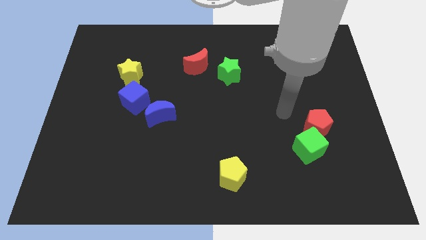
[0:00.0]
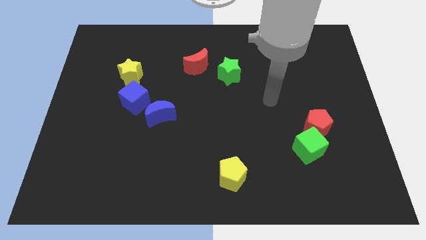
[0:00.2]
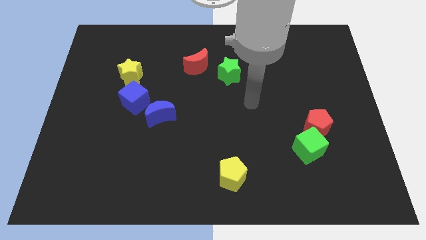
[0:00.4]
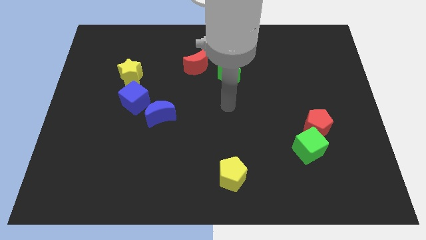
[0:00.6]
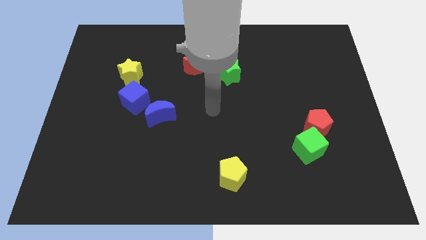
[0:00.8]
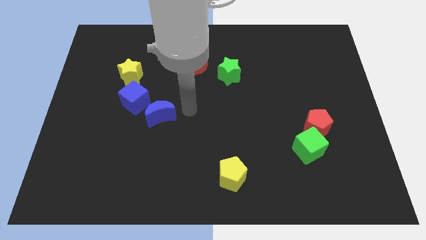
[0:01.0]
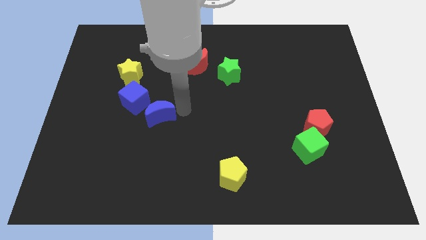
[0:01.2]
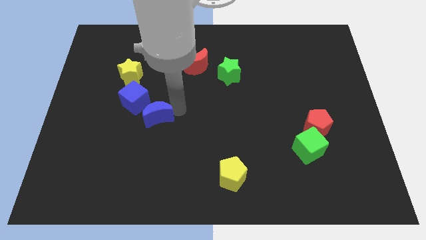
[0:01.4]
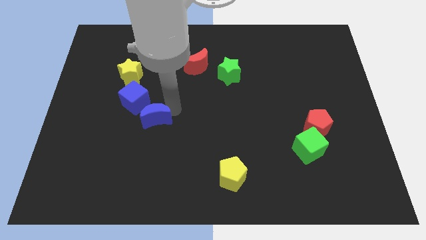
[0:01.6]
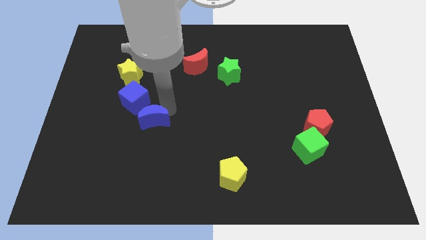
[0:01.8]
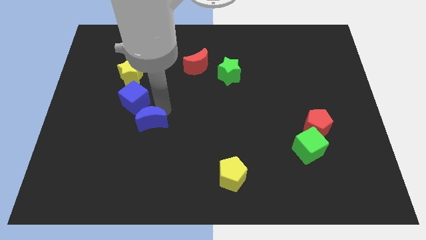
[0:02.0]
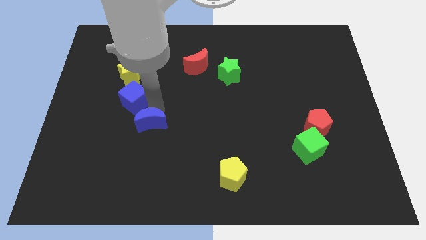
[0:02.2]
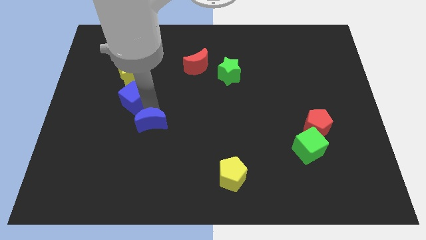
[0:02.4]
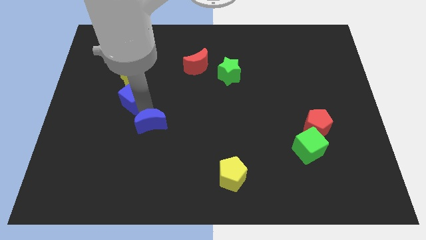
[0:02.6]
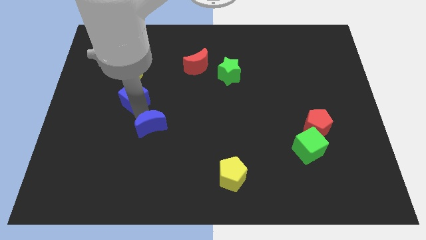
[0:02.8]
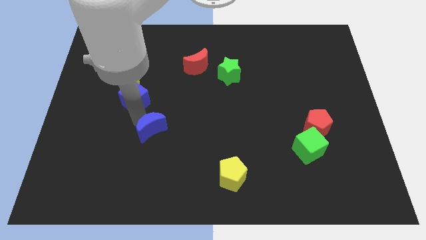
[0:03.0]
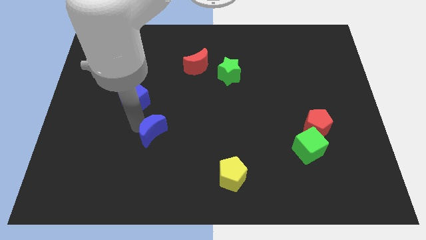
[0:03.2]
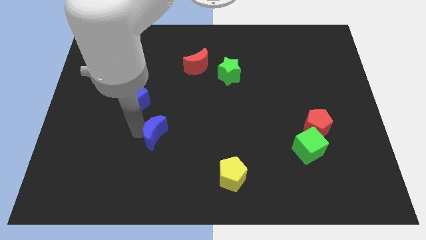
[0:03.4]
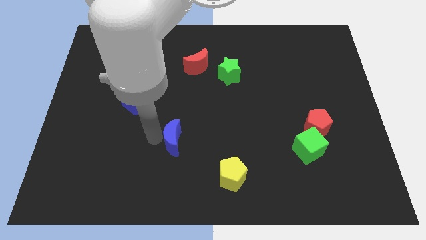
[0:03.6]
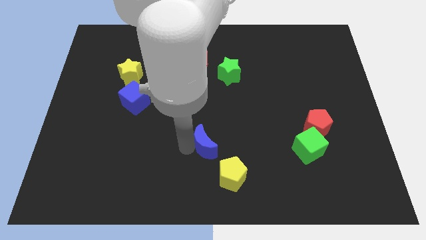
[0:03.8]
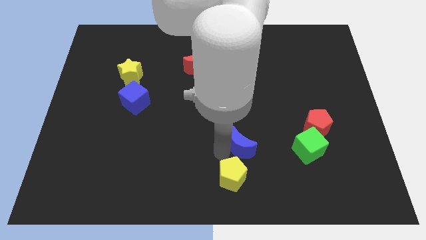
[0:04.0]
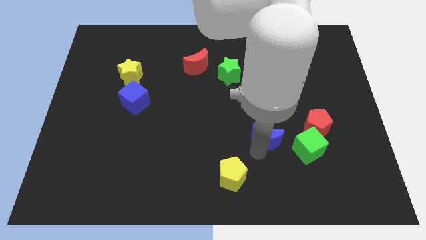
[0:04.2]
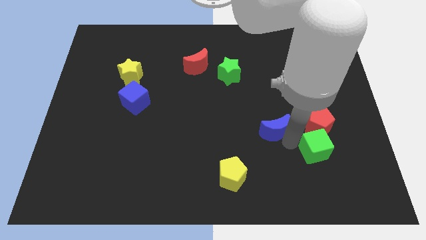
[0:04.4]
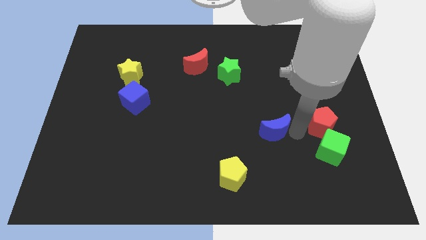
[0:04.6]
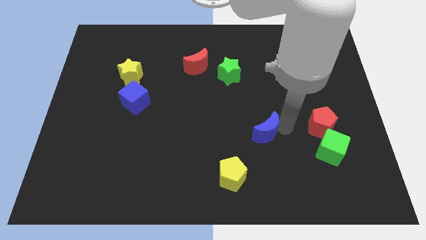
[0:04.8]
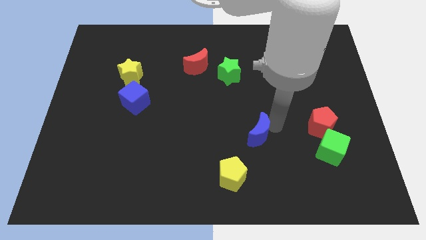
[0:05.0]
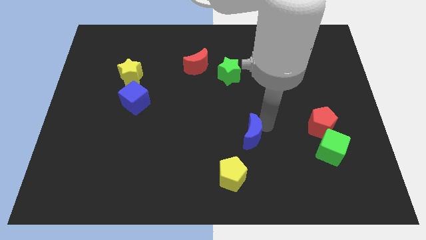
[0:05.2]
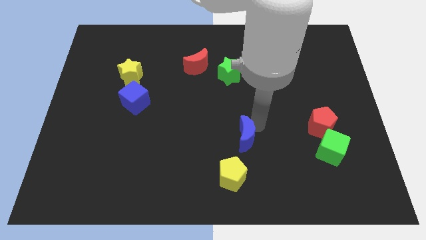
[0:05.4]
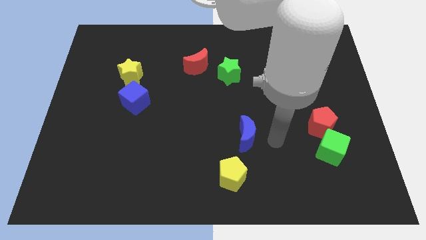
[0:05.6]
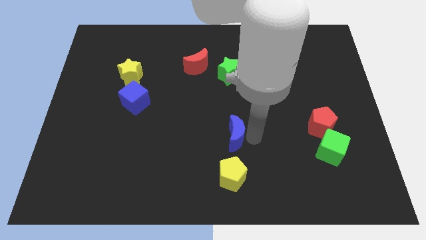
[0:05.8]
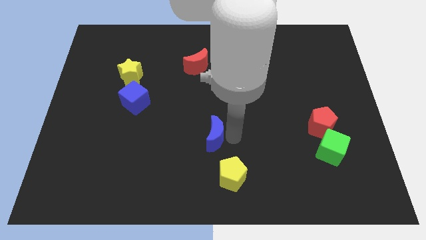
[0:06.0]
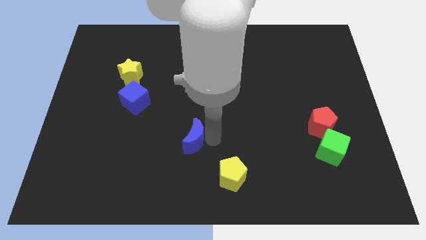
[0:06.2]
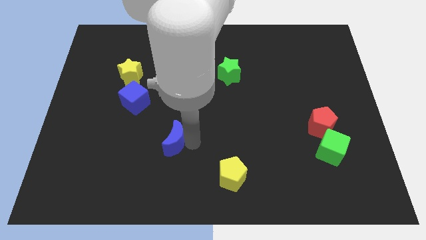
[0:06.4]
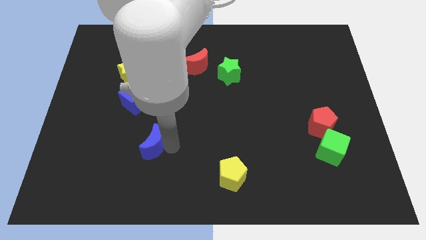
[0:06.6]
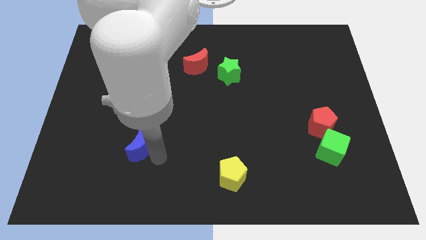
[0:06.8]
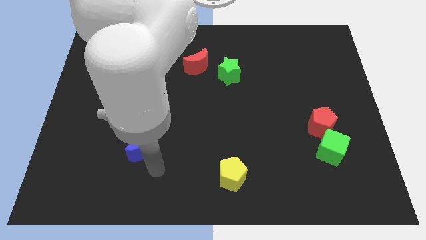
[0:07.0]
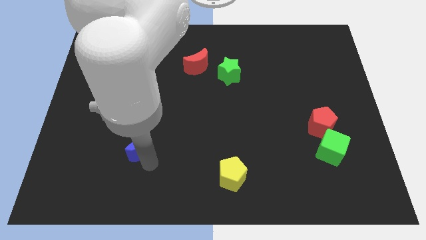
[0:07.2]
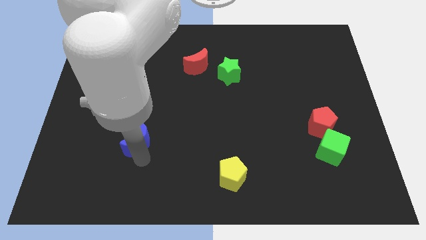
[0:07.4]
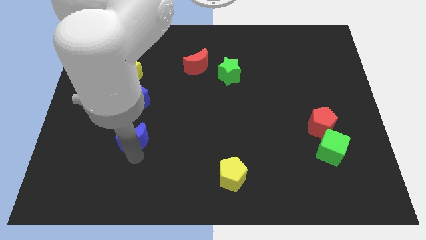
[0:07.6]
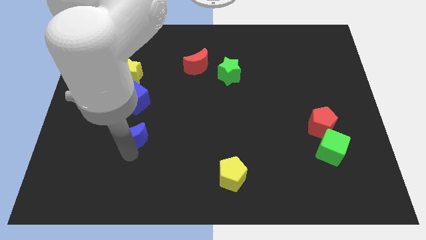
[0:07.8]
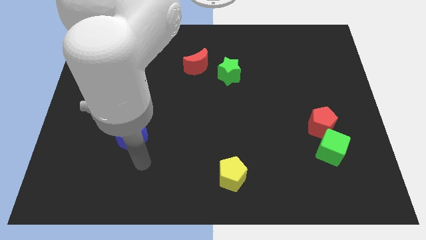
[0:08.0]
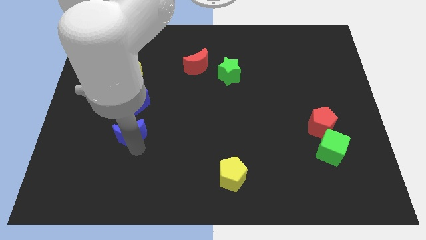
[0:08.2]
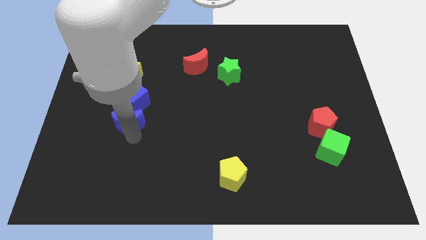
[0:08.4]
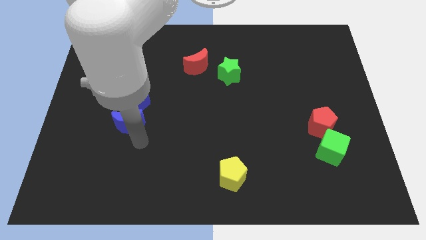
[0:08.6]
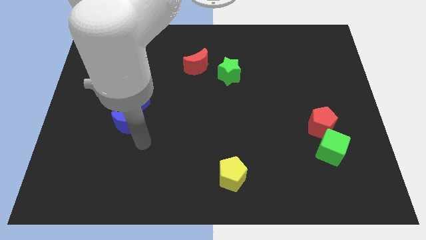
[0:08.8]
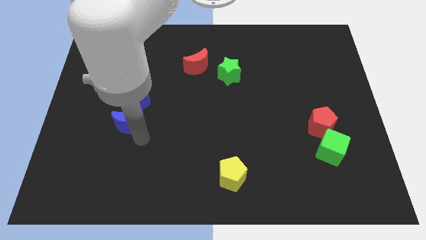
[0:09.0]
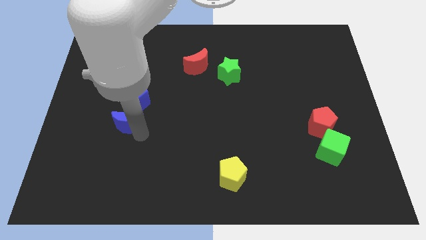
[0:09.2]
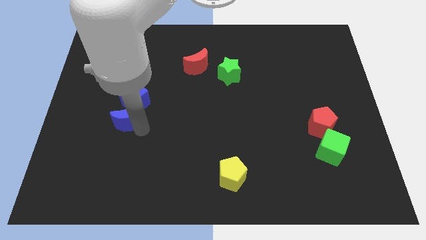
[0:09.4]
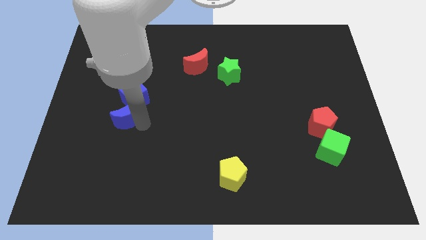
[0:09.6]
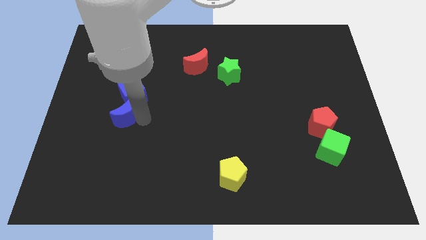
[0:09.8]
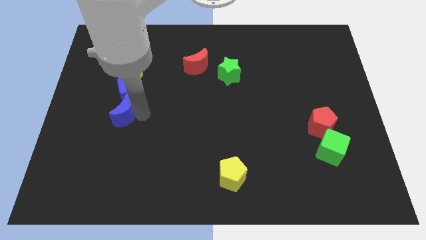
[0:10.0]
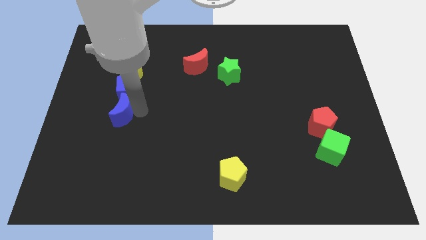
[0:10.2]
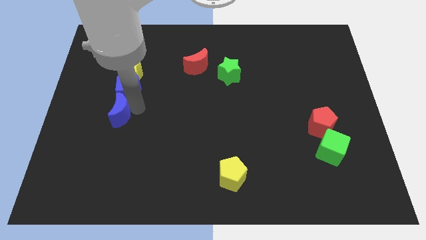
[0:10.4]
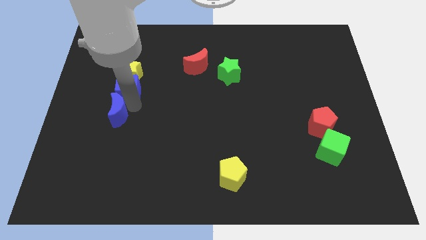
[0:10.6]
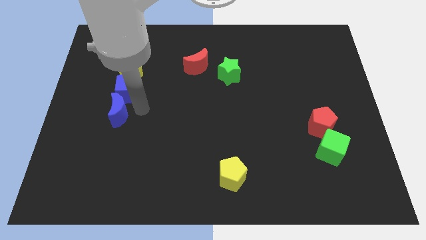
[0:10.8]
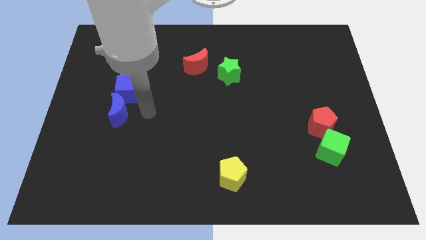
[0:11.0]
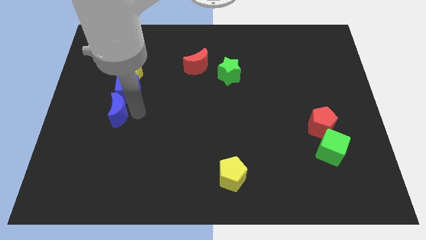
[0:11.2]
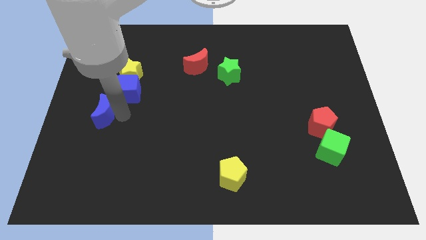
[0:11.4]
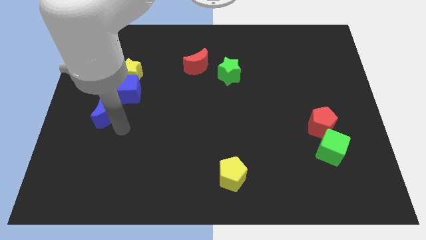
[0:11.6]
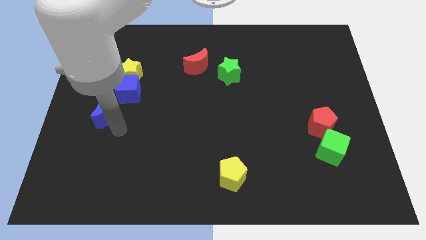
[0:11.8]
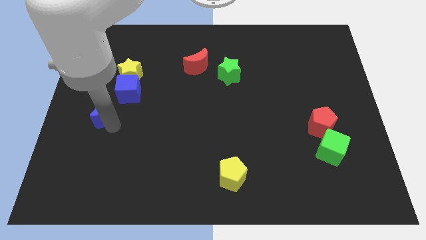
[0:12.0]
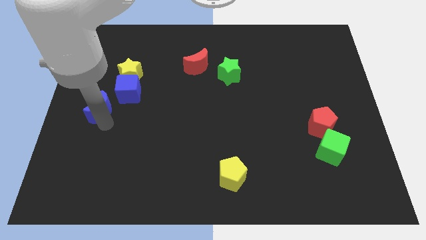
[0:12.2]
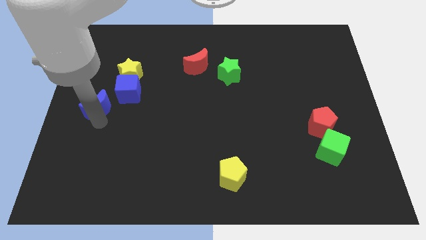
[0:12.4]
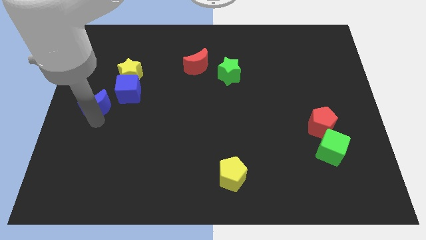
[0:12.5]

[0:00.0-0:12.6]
slide the blue moon to the left of the blue cube

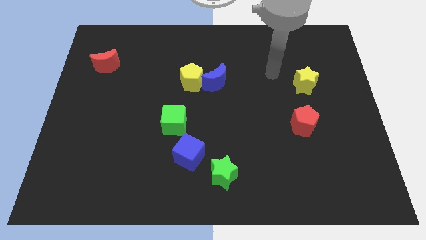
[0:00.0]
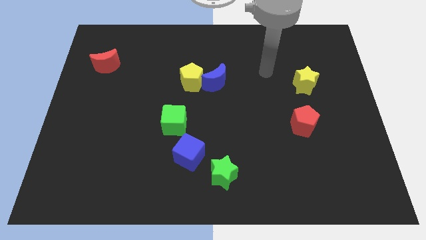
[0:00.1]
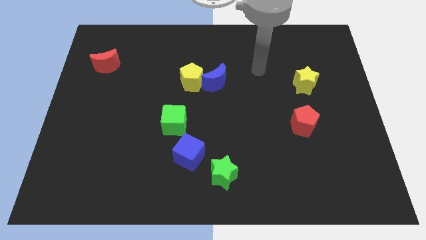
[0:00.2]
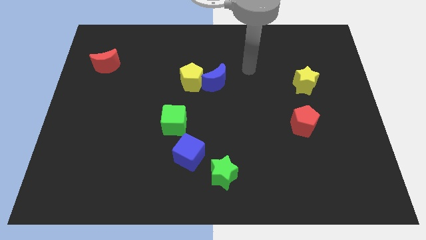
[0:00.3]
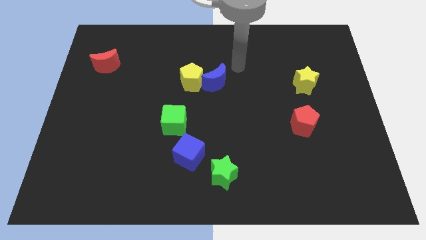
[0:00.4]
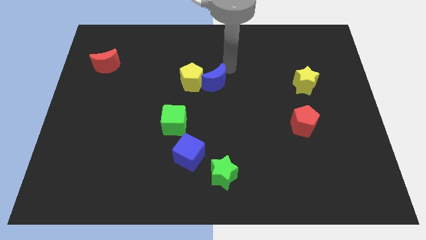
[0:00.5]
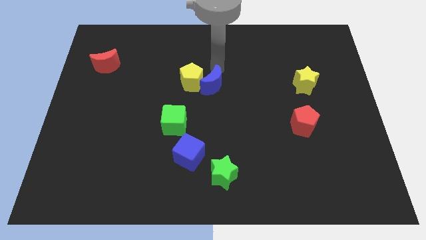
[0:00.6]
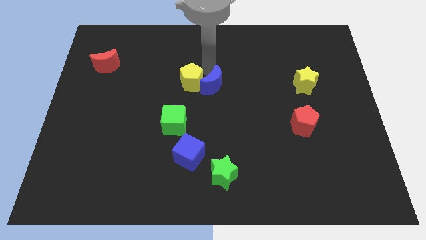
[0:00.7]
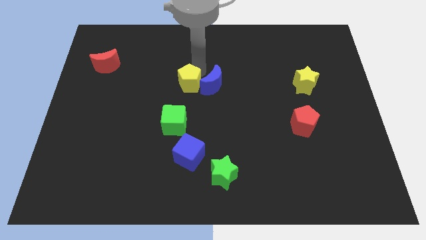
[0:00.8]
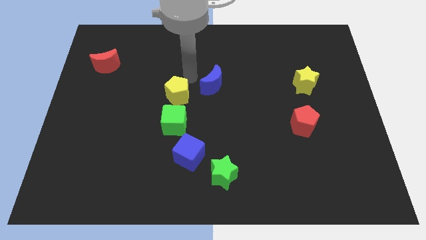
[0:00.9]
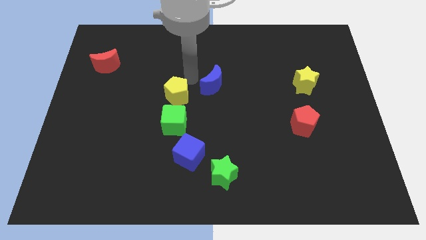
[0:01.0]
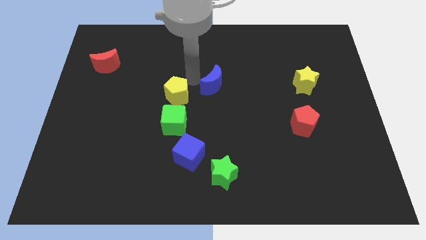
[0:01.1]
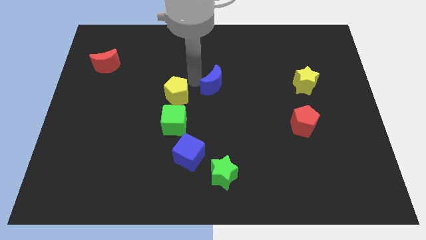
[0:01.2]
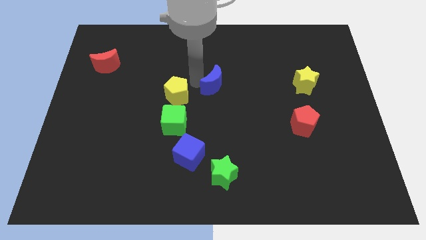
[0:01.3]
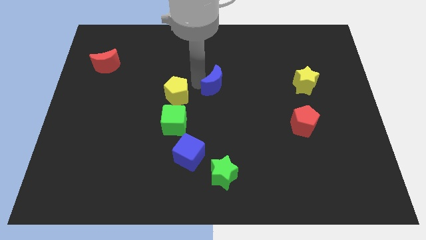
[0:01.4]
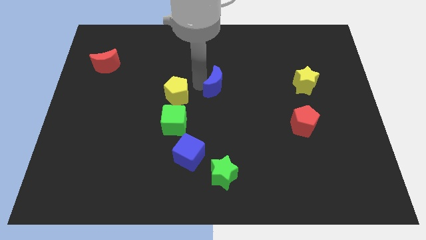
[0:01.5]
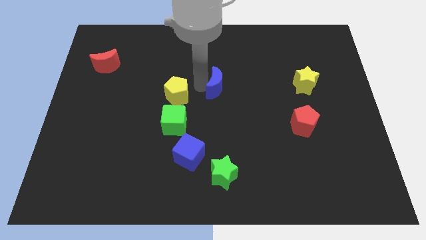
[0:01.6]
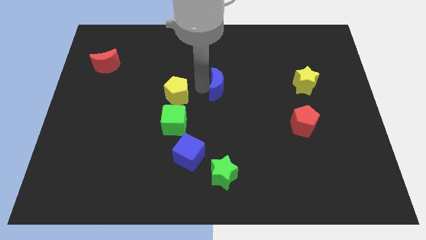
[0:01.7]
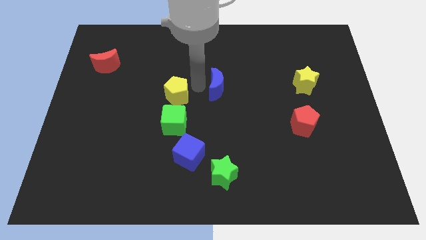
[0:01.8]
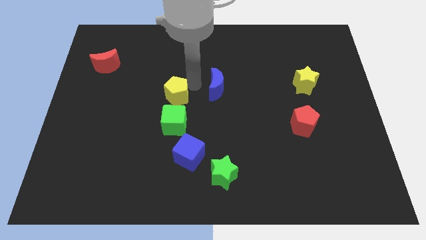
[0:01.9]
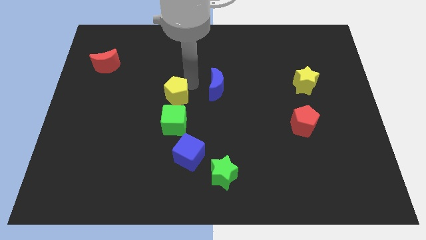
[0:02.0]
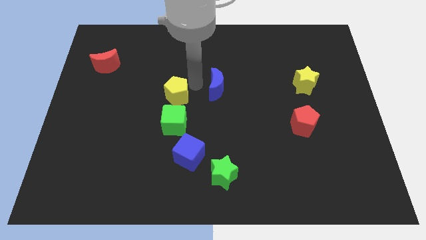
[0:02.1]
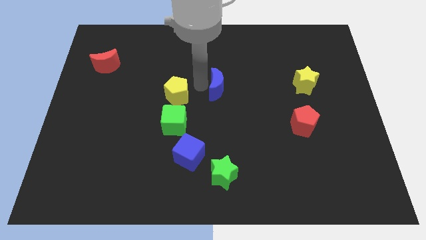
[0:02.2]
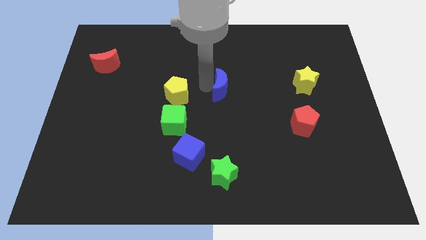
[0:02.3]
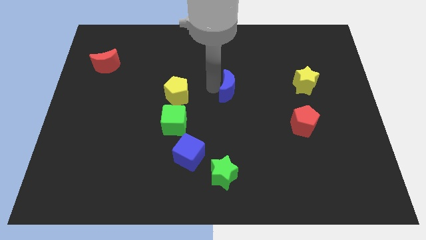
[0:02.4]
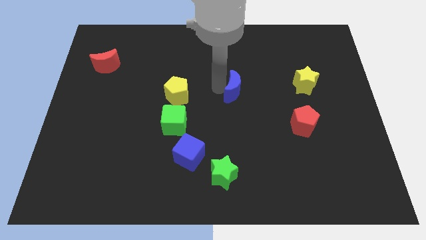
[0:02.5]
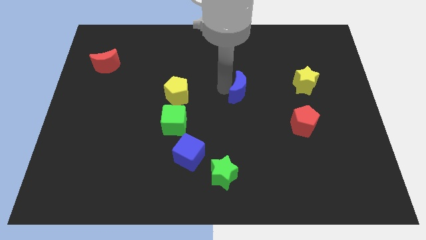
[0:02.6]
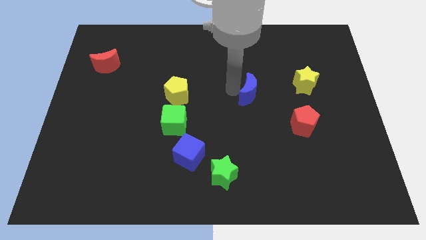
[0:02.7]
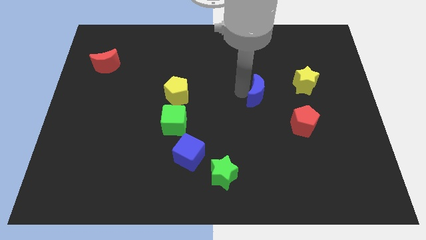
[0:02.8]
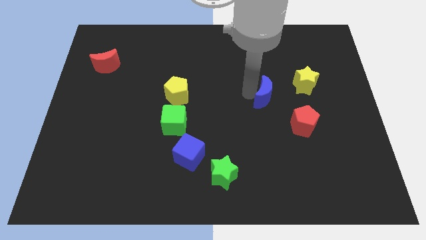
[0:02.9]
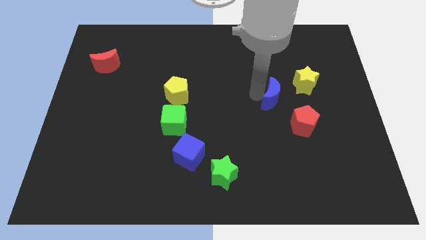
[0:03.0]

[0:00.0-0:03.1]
move the blue moon to the bottom left side of the yellow star
